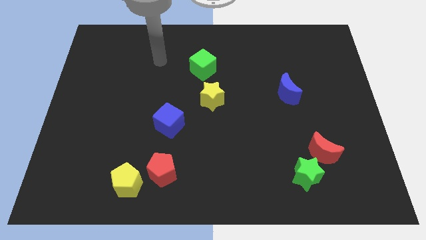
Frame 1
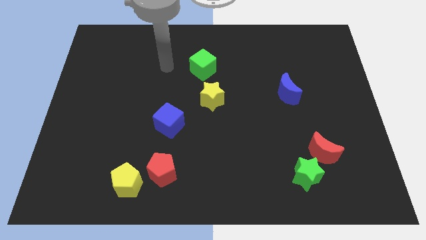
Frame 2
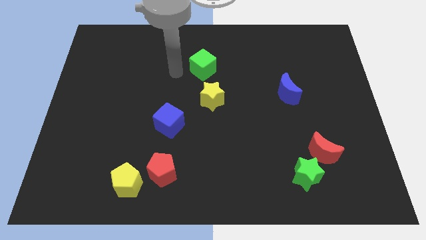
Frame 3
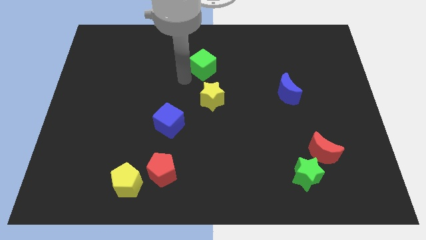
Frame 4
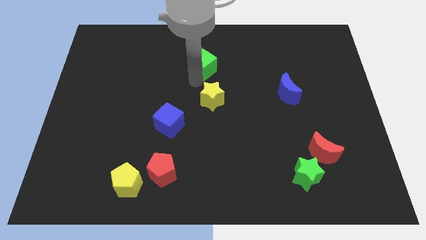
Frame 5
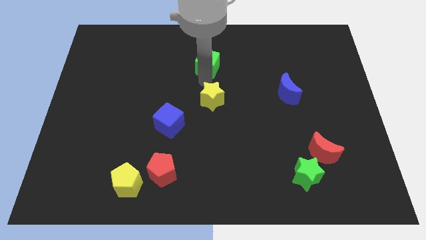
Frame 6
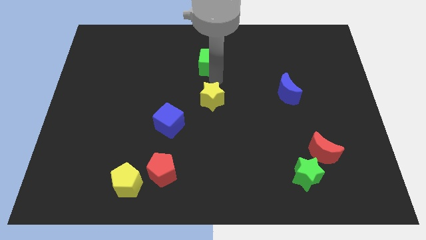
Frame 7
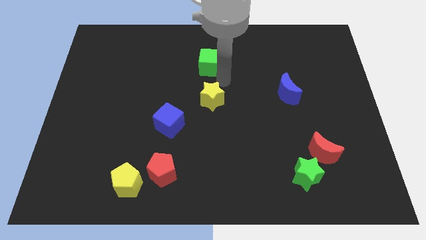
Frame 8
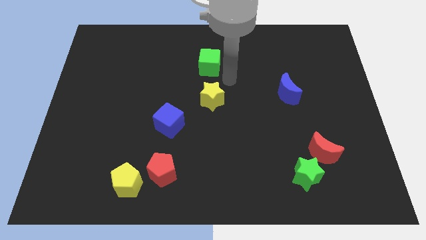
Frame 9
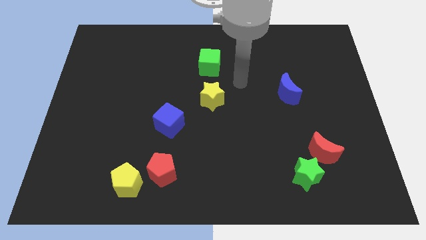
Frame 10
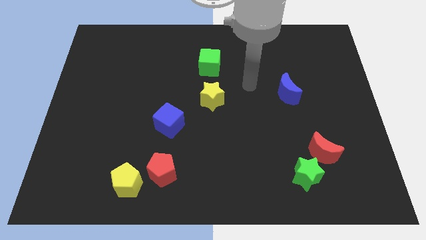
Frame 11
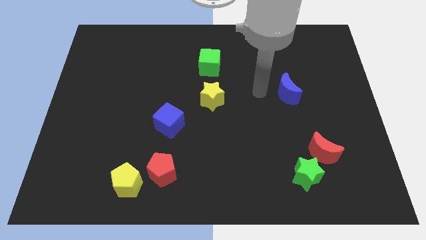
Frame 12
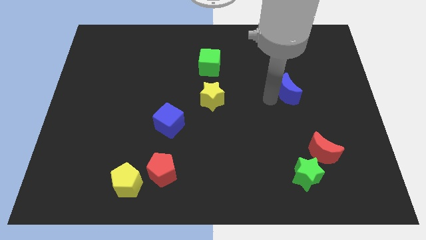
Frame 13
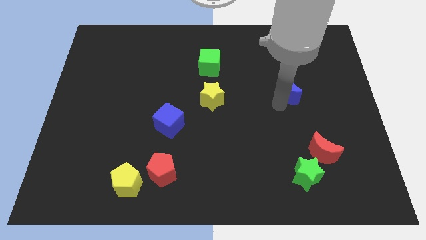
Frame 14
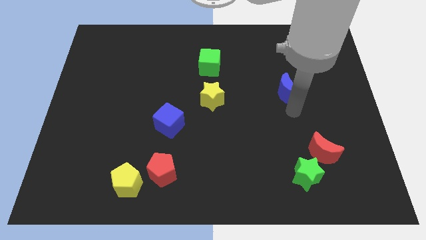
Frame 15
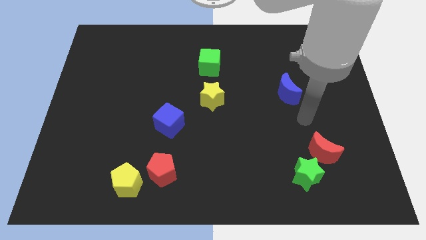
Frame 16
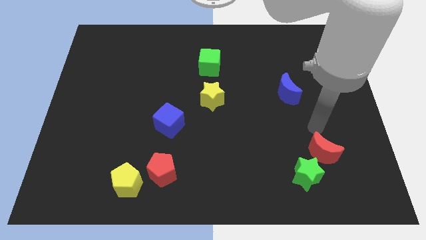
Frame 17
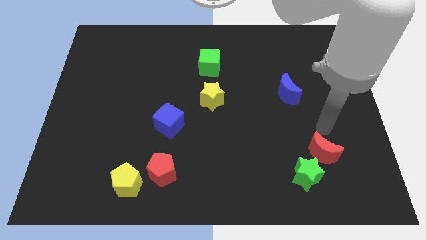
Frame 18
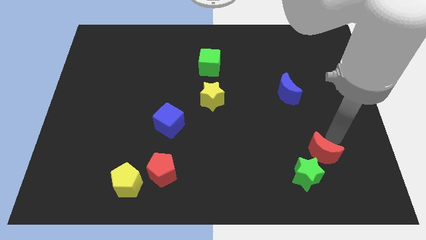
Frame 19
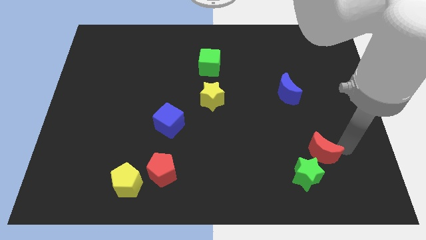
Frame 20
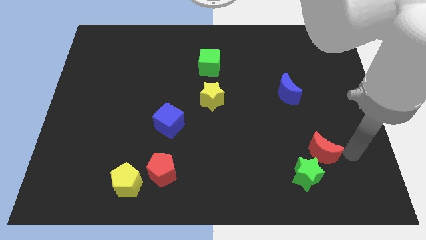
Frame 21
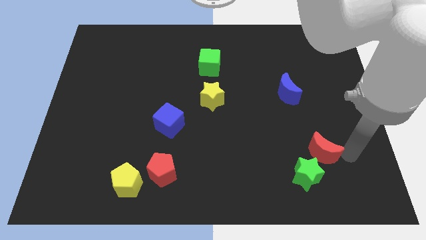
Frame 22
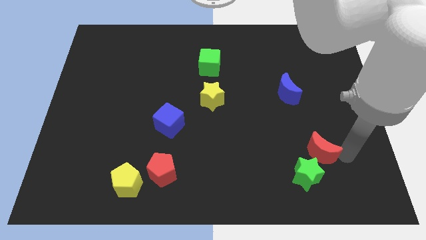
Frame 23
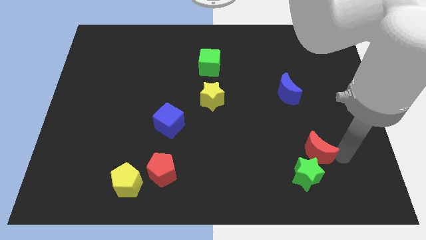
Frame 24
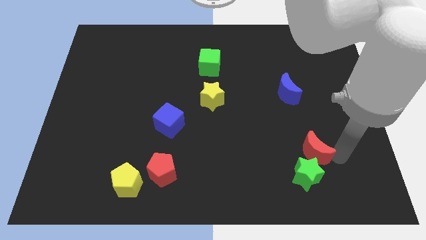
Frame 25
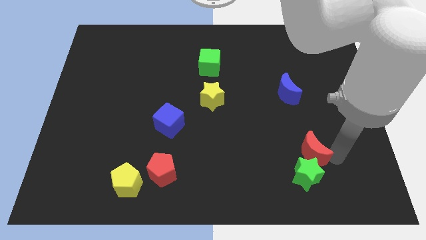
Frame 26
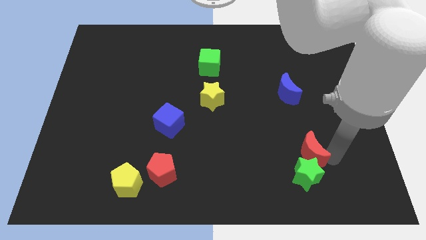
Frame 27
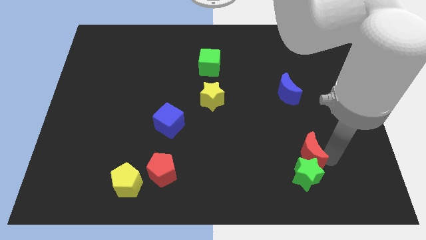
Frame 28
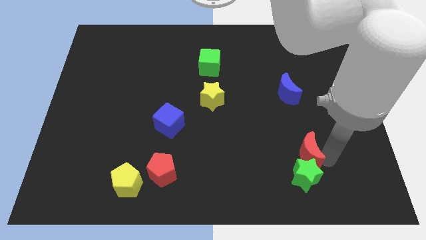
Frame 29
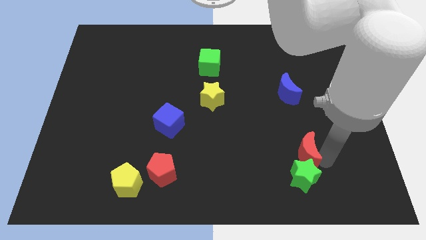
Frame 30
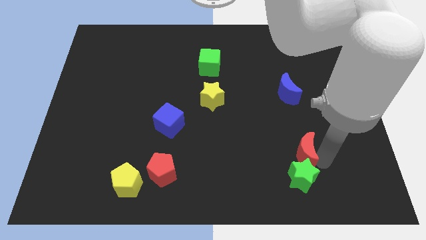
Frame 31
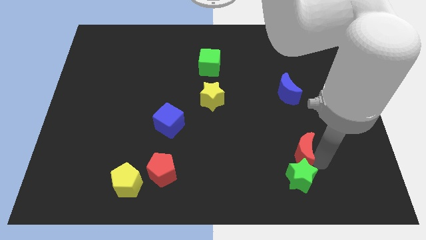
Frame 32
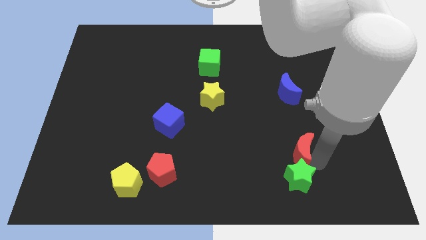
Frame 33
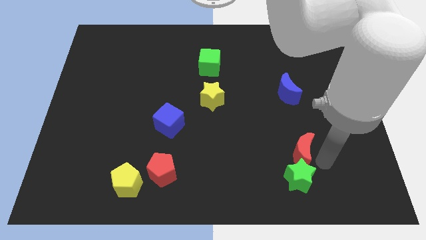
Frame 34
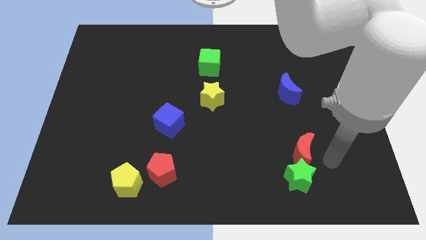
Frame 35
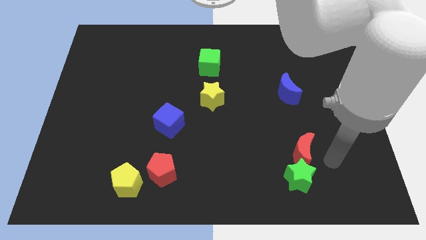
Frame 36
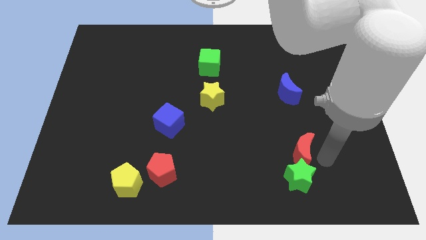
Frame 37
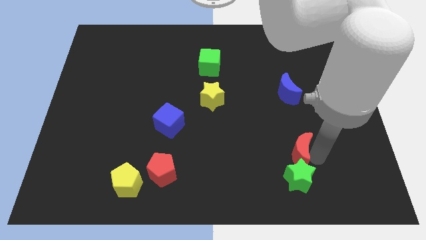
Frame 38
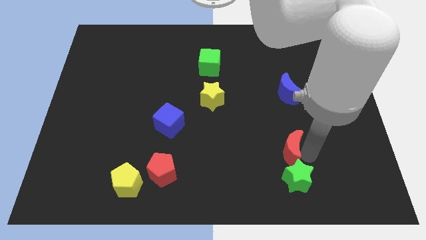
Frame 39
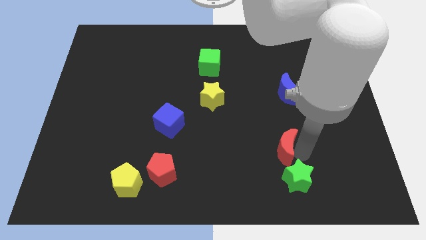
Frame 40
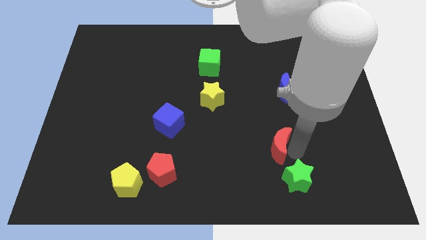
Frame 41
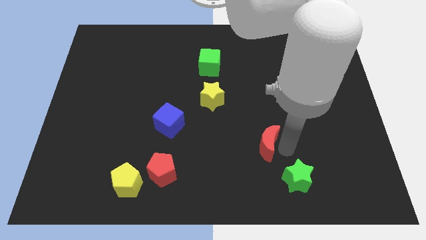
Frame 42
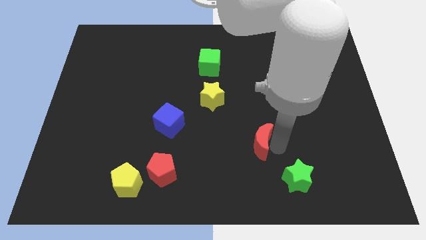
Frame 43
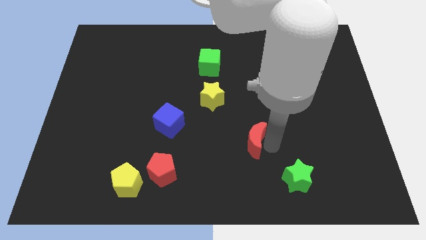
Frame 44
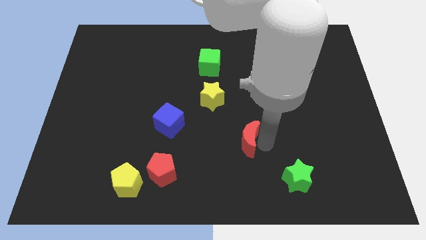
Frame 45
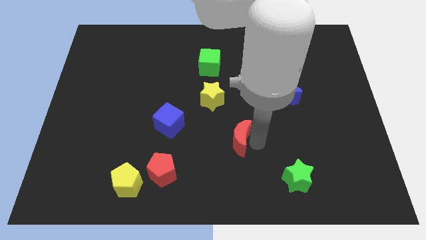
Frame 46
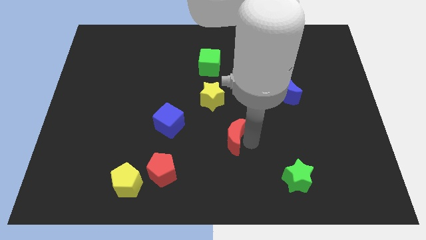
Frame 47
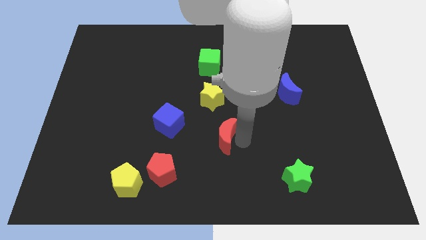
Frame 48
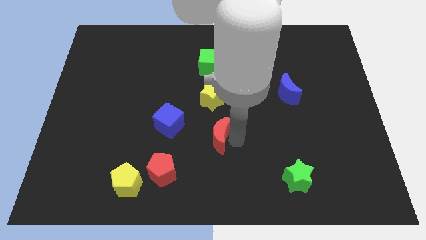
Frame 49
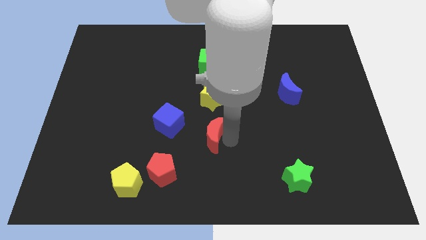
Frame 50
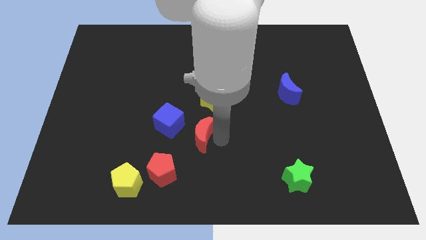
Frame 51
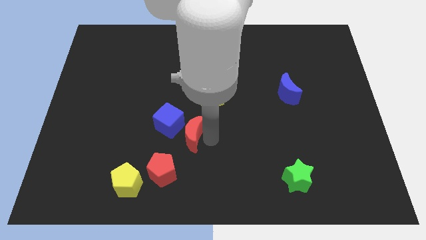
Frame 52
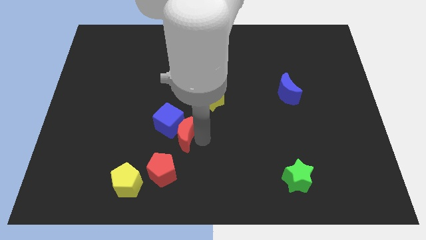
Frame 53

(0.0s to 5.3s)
push the red moon to the blue cube

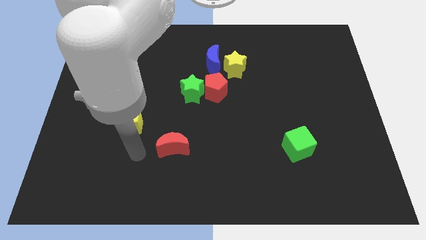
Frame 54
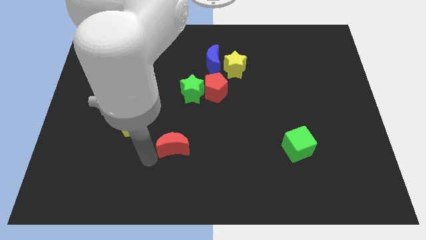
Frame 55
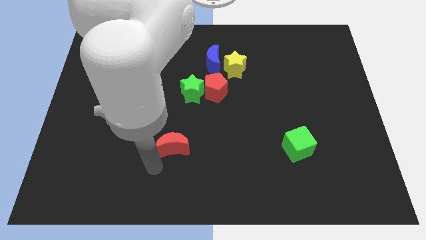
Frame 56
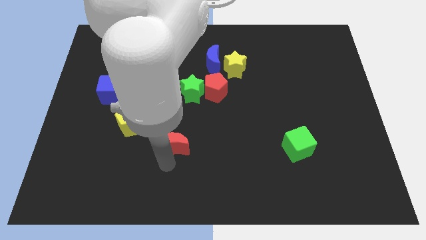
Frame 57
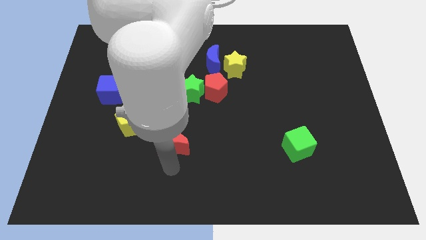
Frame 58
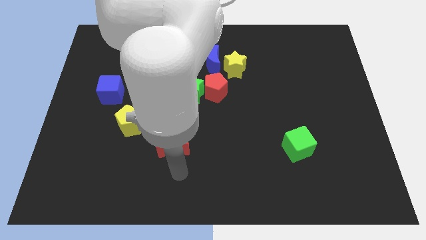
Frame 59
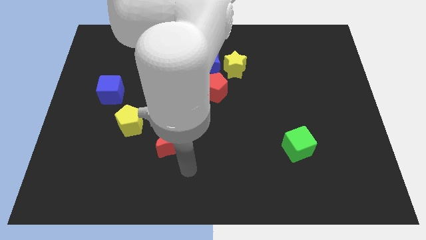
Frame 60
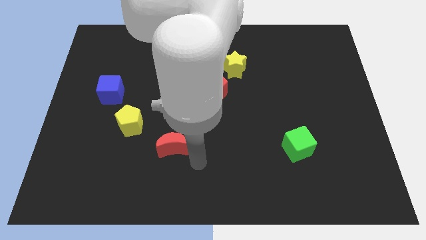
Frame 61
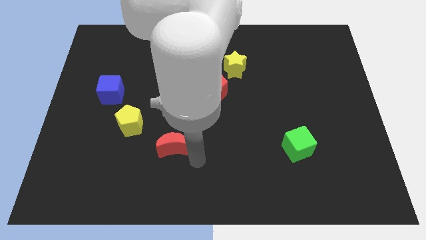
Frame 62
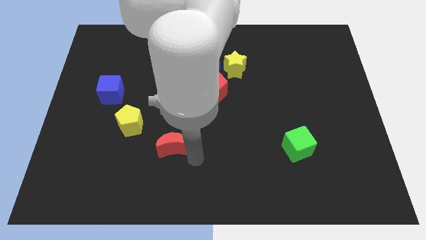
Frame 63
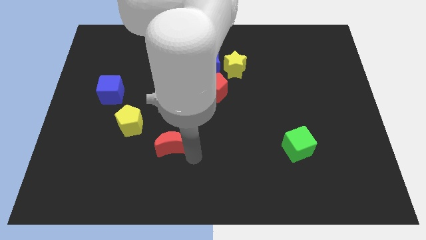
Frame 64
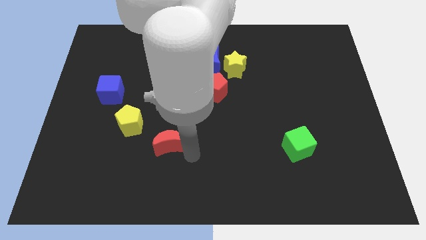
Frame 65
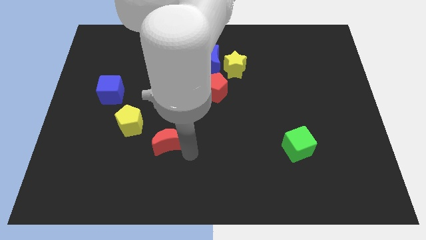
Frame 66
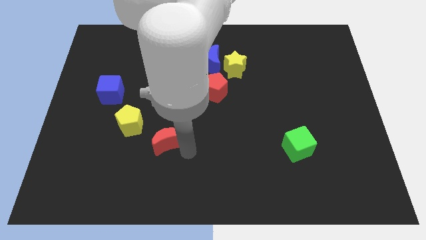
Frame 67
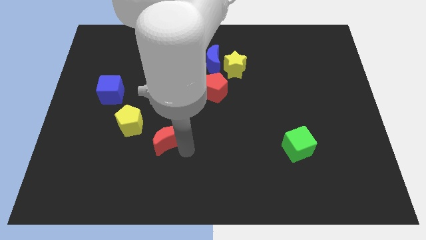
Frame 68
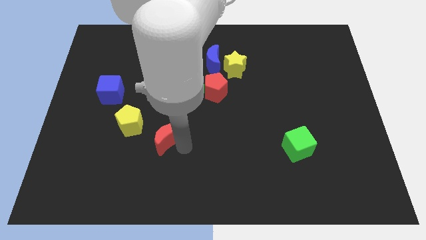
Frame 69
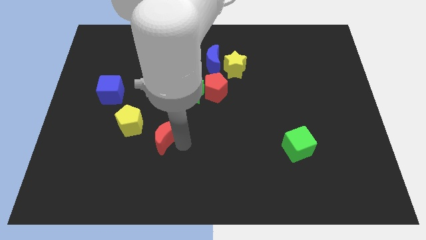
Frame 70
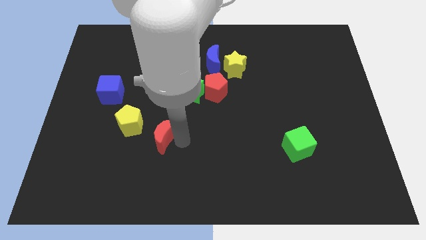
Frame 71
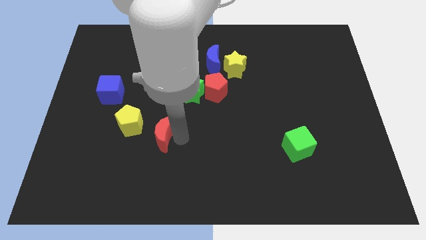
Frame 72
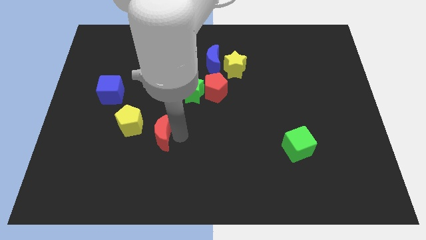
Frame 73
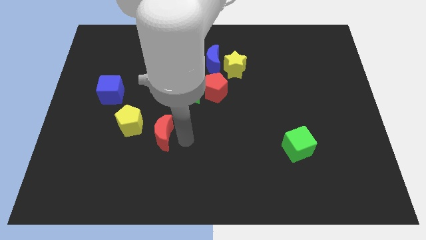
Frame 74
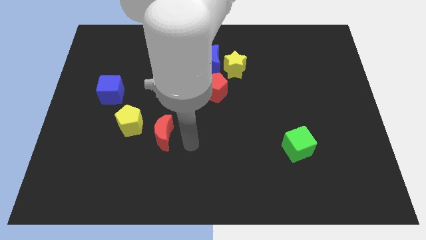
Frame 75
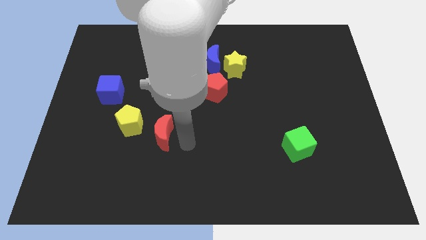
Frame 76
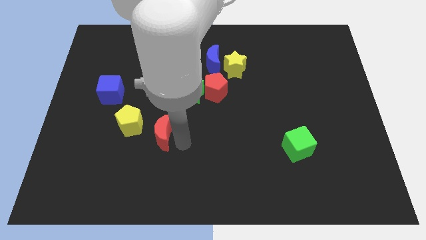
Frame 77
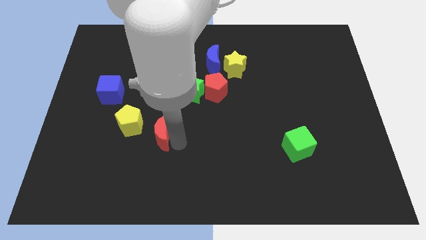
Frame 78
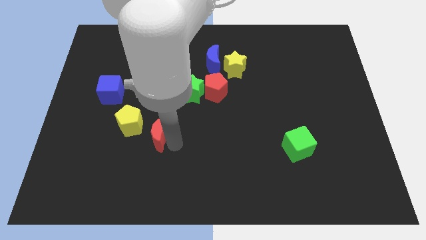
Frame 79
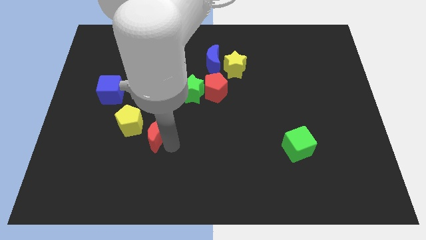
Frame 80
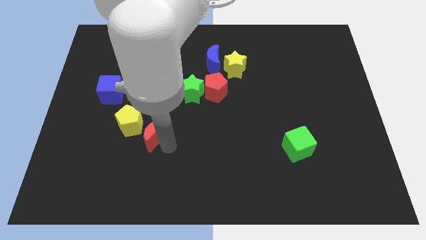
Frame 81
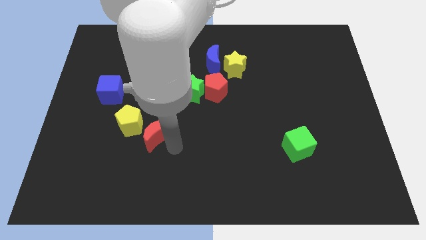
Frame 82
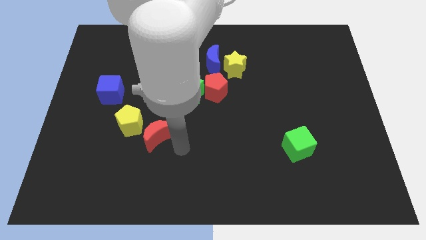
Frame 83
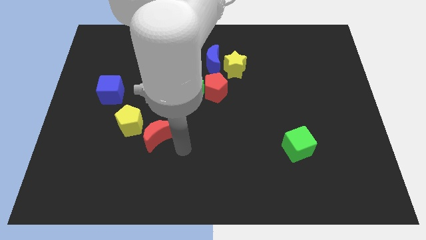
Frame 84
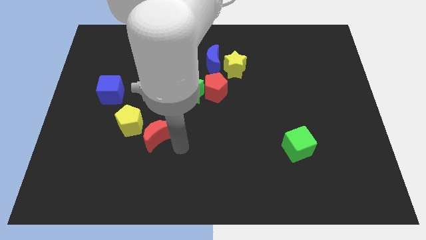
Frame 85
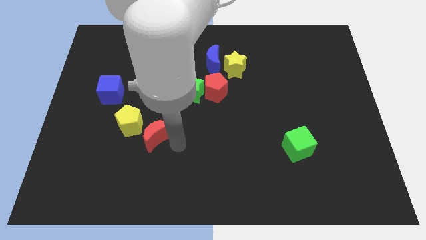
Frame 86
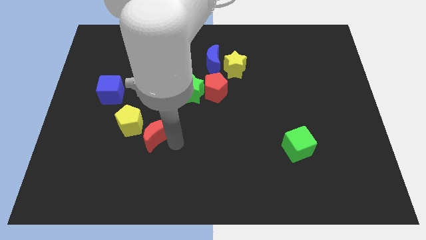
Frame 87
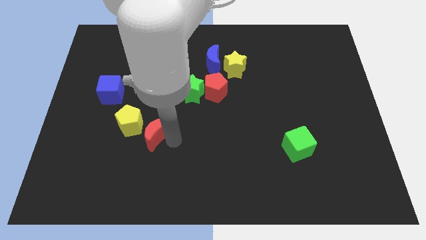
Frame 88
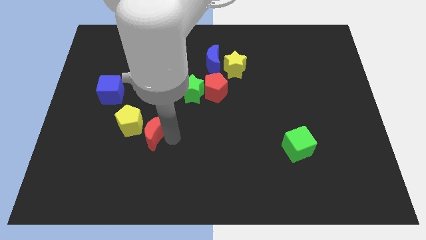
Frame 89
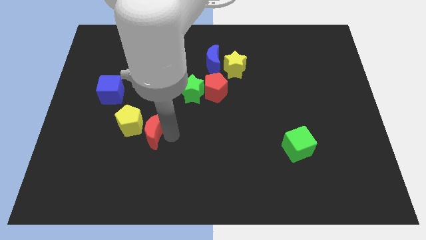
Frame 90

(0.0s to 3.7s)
slide the red moon next to the yellow pentagon
